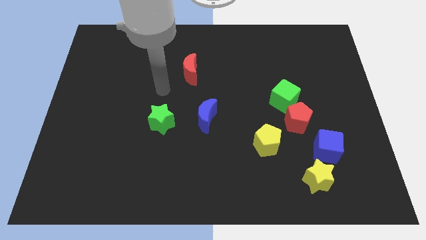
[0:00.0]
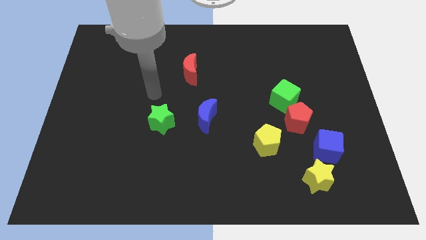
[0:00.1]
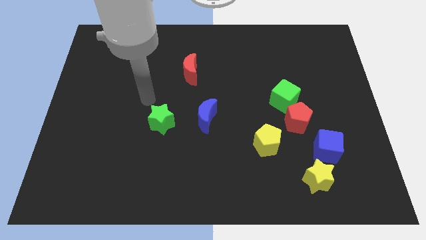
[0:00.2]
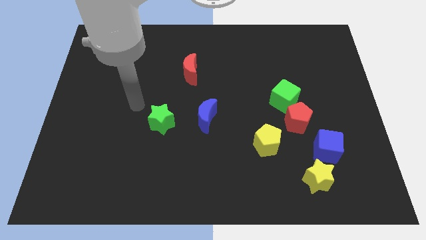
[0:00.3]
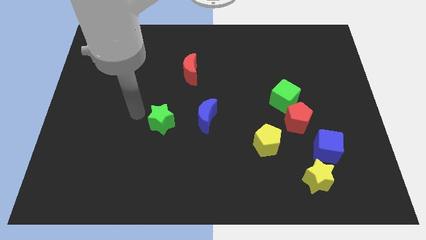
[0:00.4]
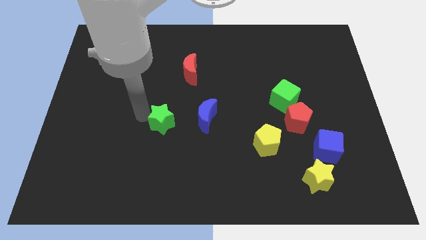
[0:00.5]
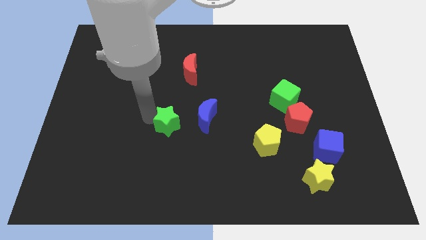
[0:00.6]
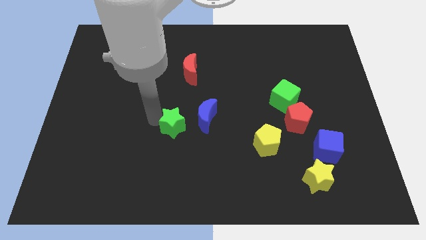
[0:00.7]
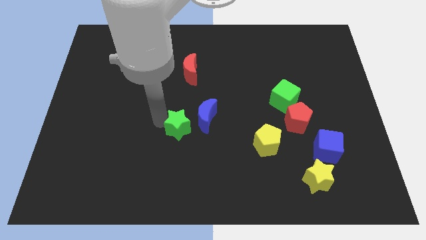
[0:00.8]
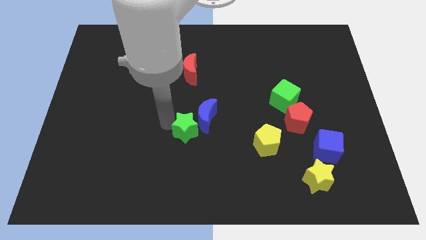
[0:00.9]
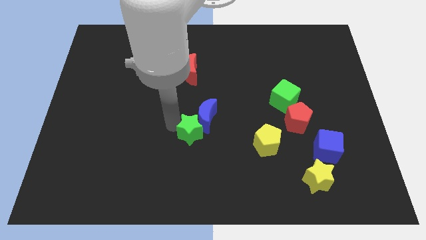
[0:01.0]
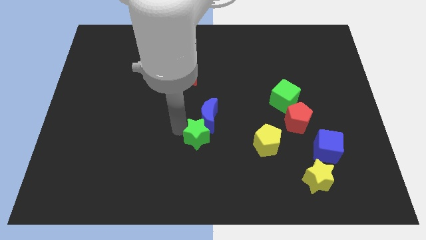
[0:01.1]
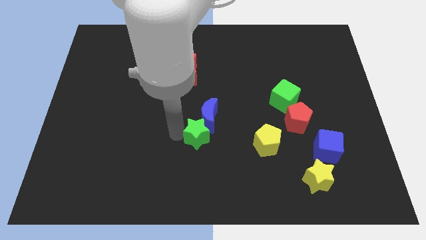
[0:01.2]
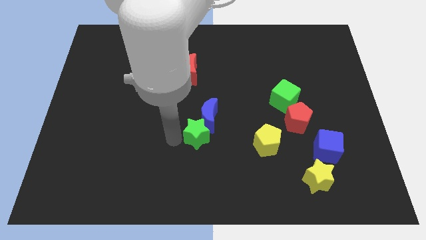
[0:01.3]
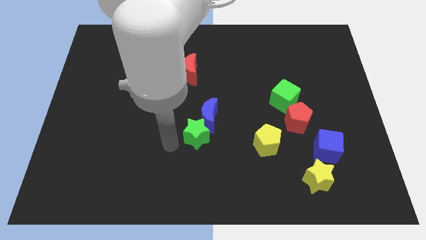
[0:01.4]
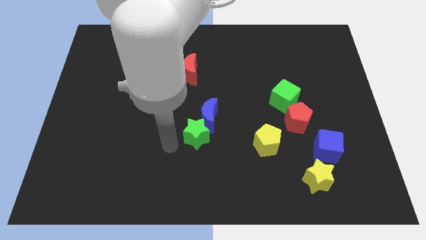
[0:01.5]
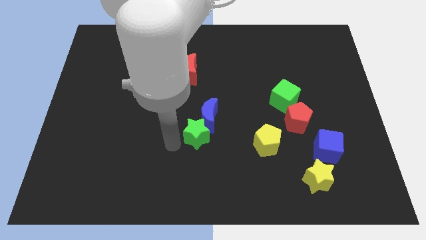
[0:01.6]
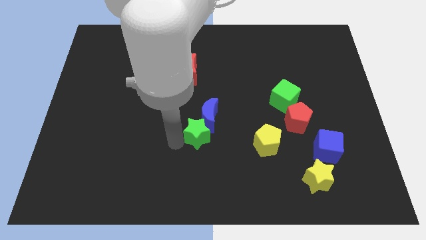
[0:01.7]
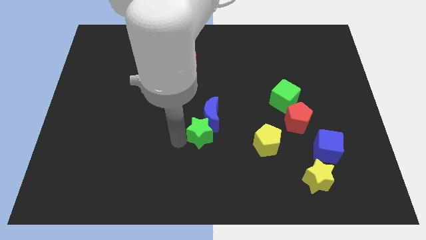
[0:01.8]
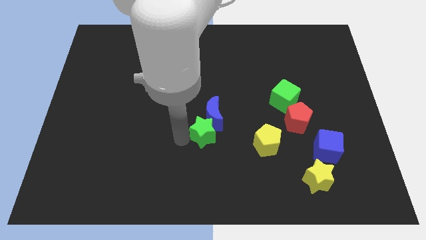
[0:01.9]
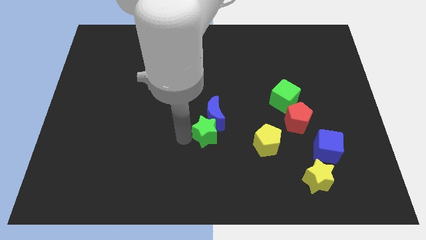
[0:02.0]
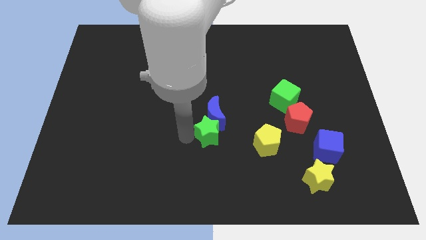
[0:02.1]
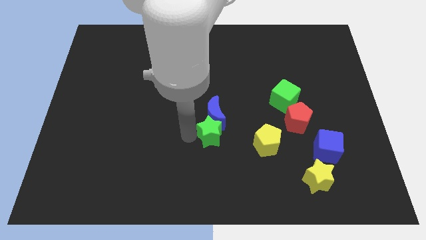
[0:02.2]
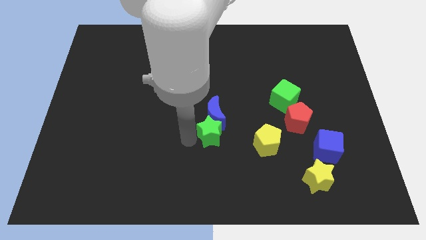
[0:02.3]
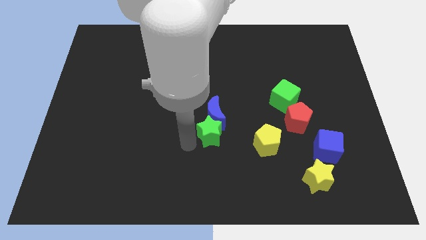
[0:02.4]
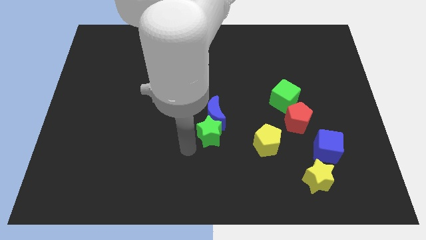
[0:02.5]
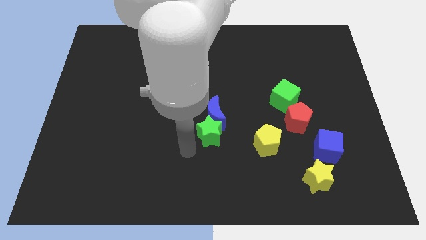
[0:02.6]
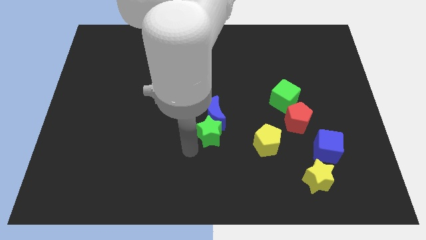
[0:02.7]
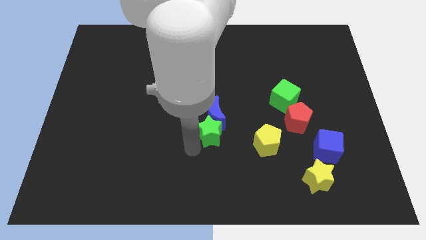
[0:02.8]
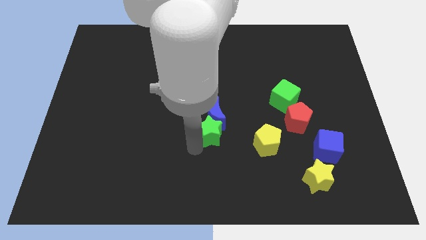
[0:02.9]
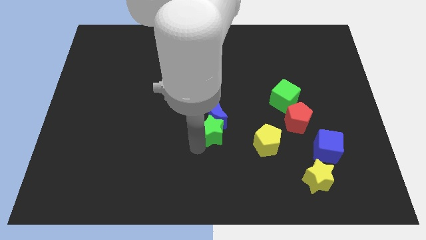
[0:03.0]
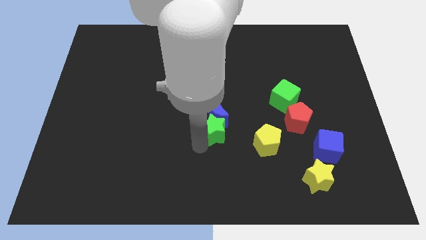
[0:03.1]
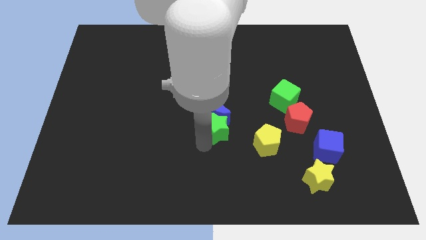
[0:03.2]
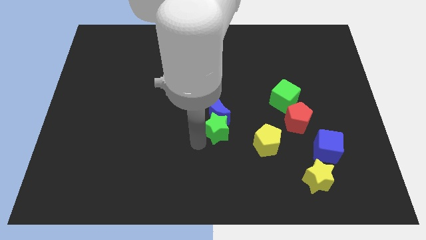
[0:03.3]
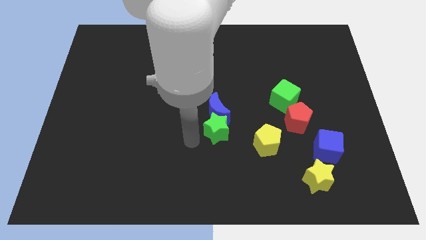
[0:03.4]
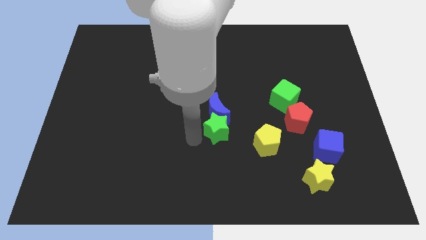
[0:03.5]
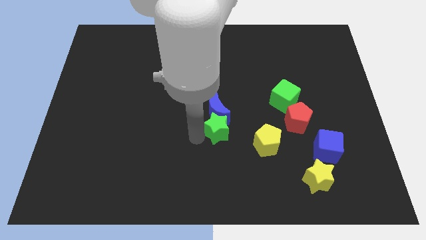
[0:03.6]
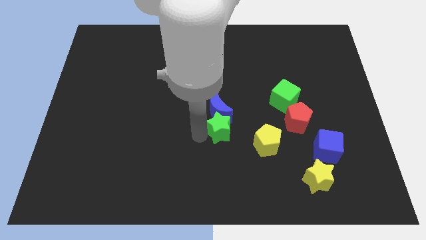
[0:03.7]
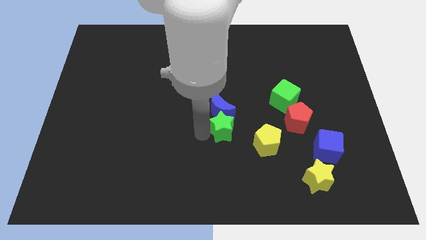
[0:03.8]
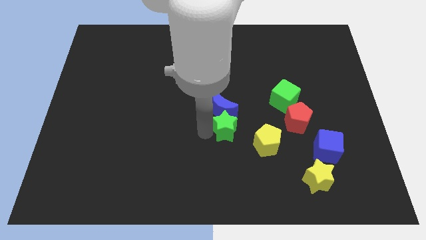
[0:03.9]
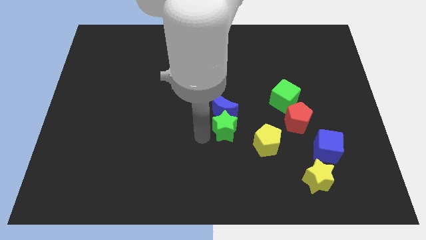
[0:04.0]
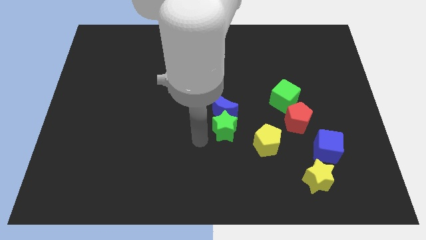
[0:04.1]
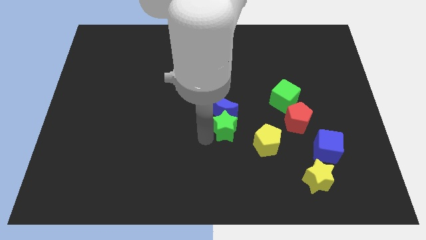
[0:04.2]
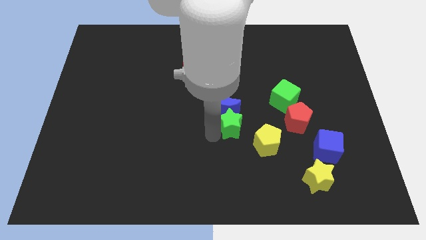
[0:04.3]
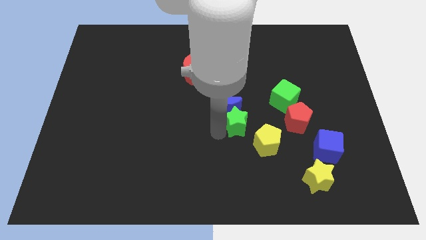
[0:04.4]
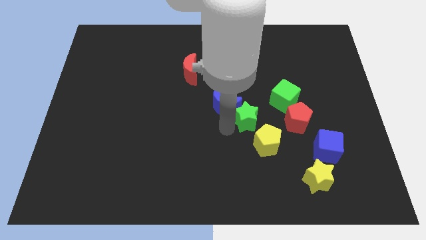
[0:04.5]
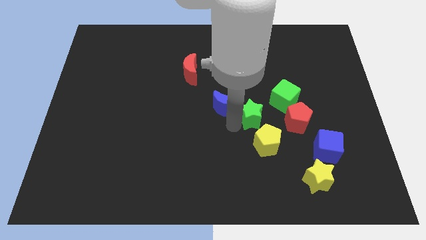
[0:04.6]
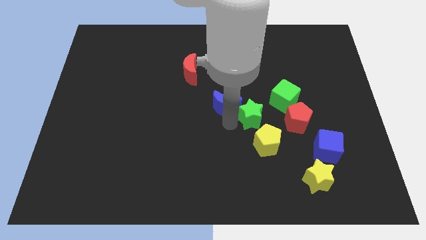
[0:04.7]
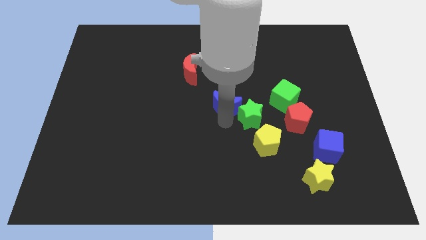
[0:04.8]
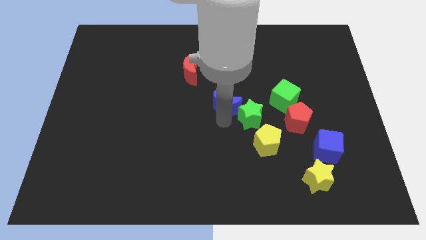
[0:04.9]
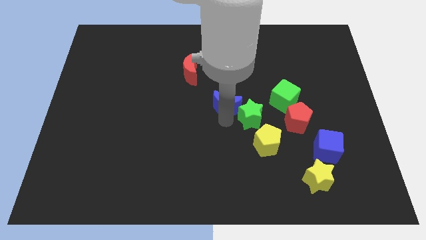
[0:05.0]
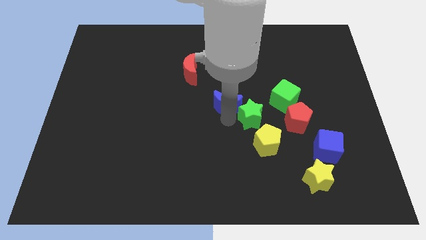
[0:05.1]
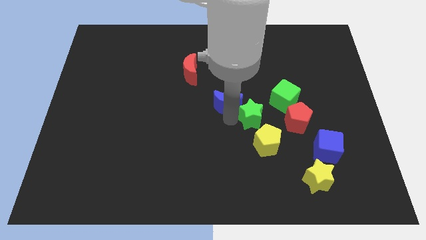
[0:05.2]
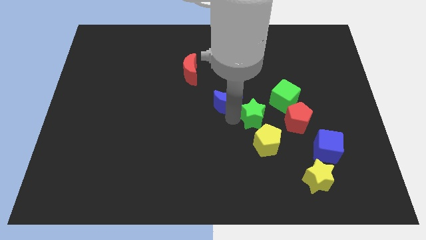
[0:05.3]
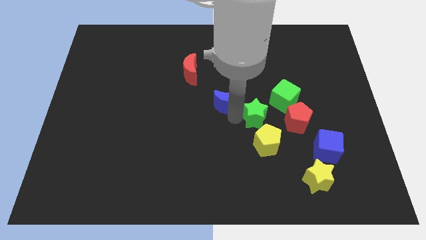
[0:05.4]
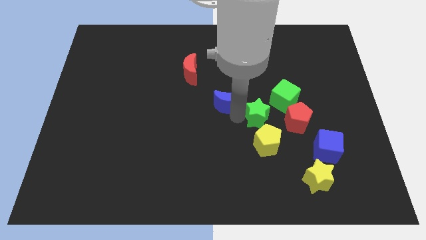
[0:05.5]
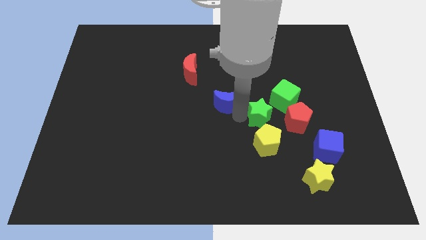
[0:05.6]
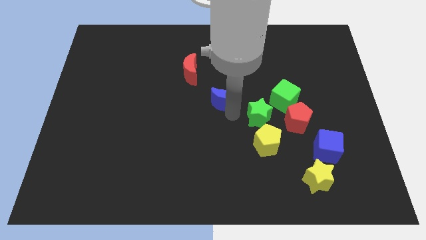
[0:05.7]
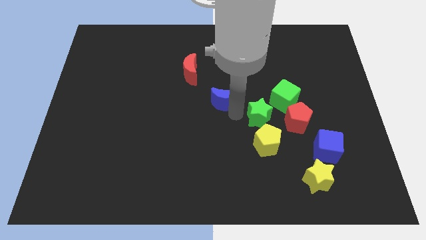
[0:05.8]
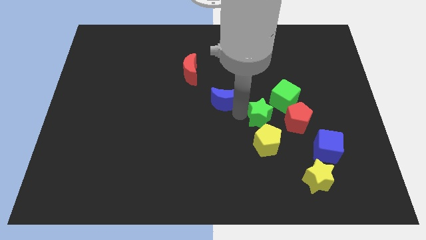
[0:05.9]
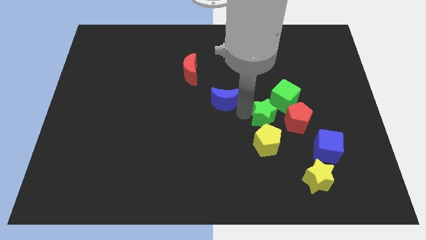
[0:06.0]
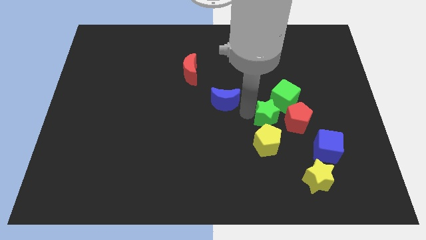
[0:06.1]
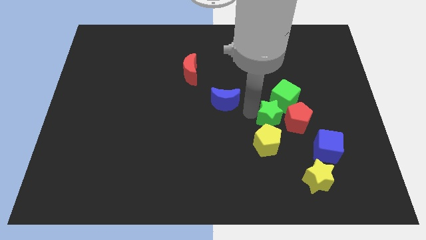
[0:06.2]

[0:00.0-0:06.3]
put the green star close to the red pentagon

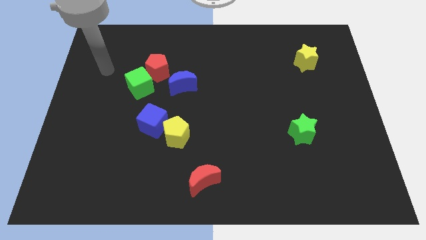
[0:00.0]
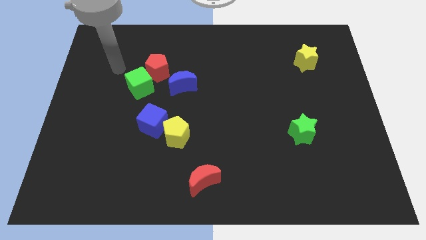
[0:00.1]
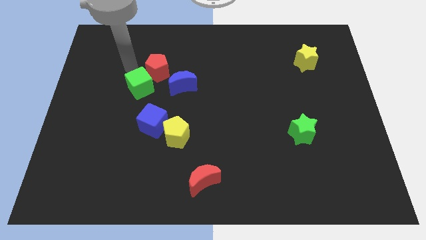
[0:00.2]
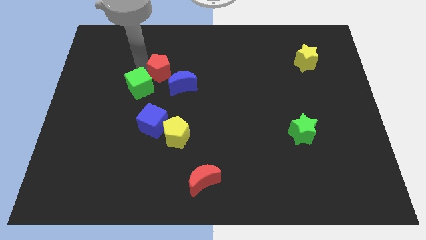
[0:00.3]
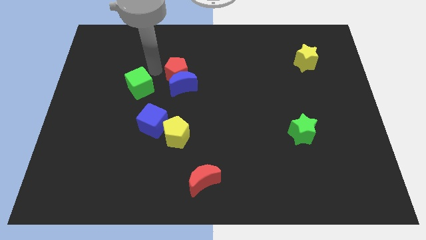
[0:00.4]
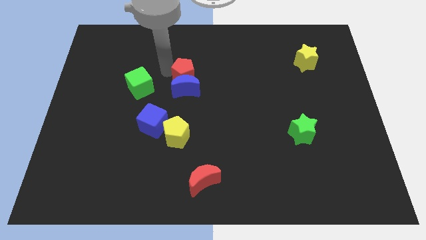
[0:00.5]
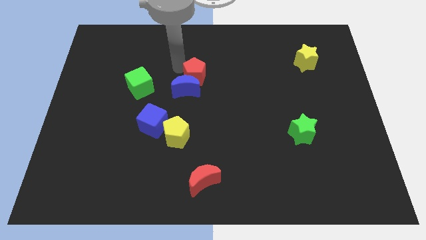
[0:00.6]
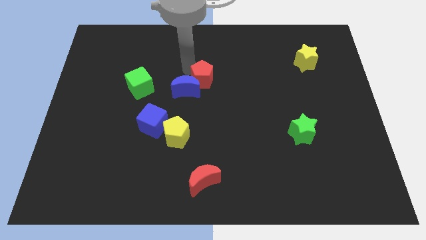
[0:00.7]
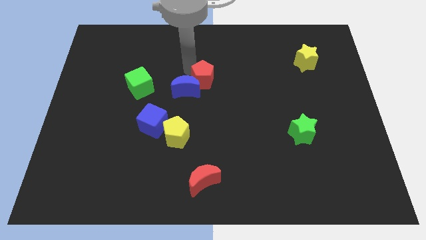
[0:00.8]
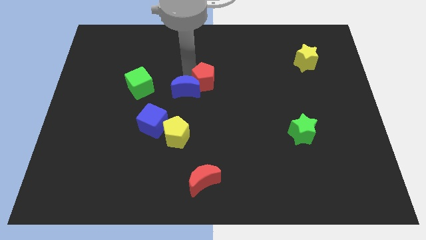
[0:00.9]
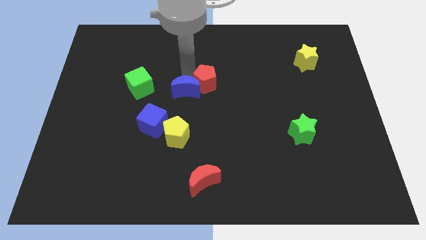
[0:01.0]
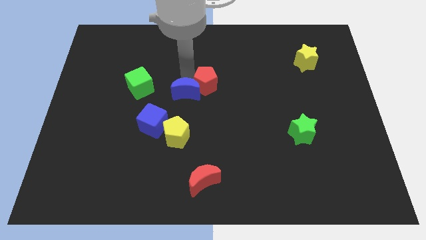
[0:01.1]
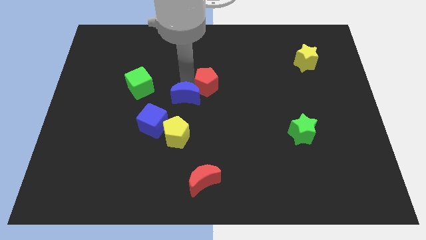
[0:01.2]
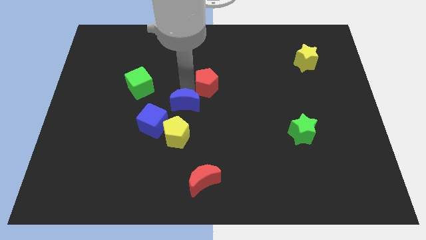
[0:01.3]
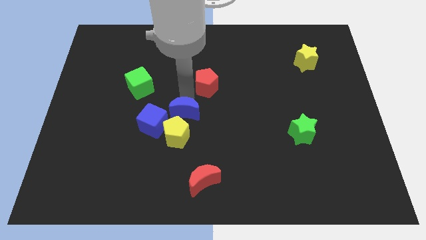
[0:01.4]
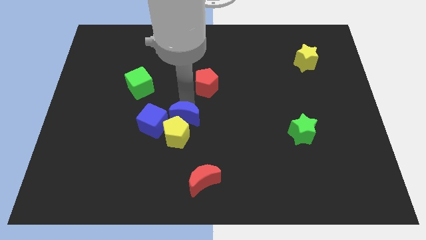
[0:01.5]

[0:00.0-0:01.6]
push the blue moon towards the yellow pentagon
